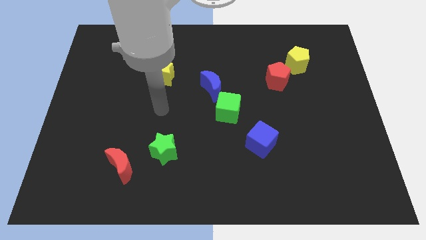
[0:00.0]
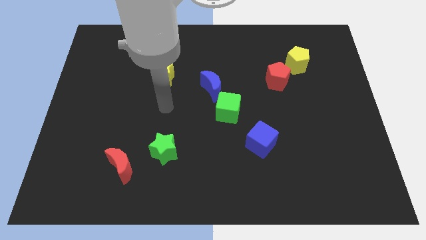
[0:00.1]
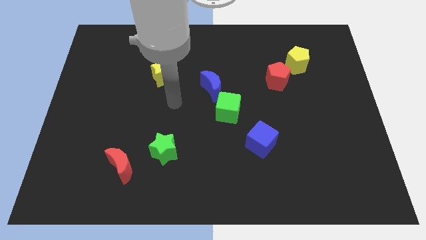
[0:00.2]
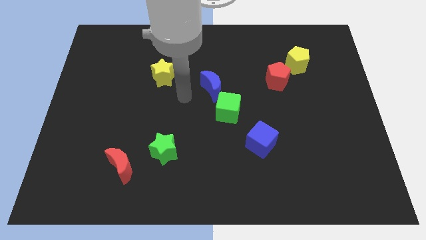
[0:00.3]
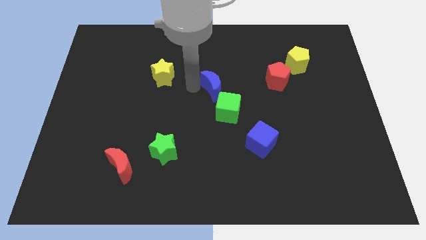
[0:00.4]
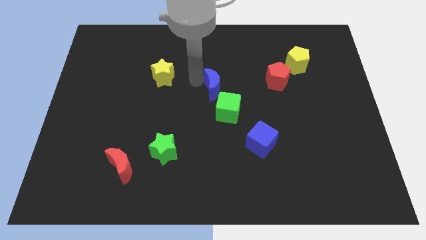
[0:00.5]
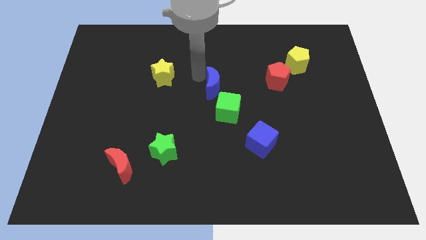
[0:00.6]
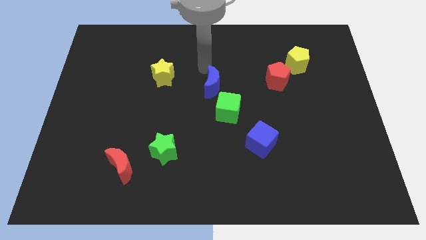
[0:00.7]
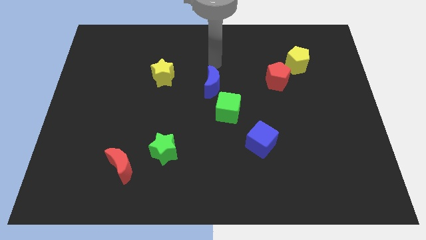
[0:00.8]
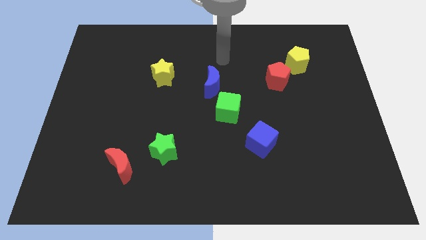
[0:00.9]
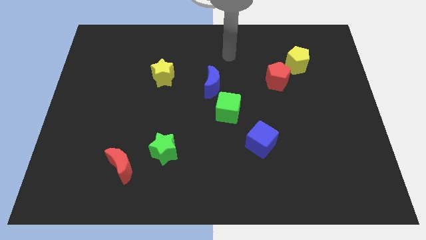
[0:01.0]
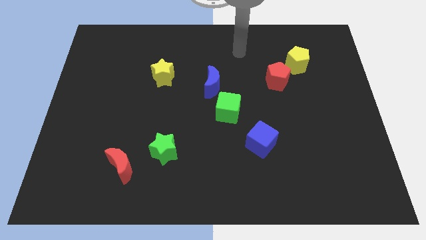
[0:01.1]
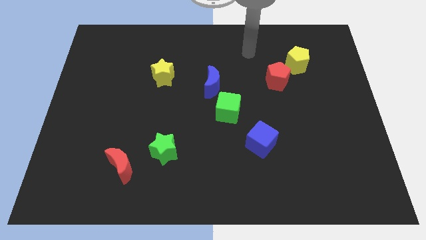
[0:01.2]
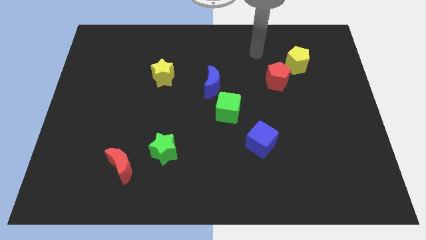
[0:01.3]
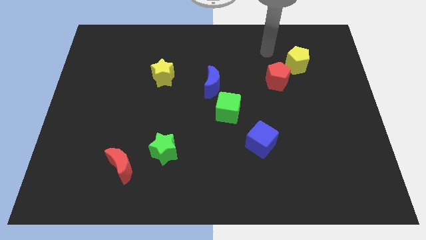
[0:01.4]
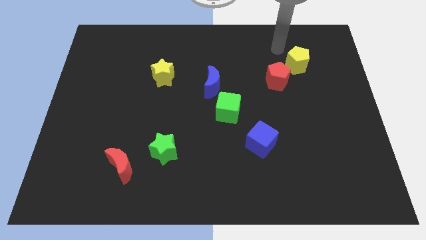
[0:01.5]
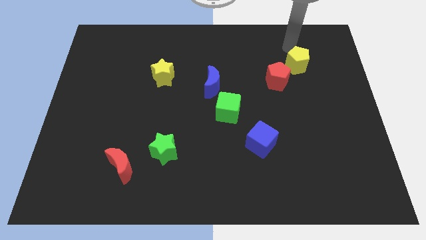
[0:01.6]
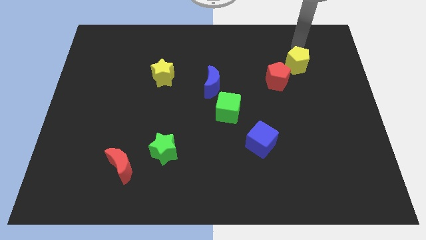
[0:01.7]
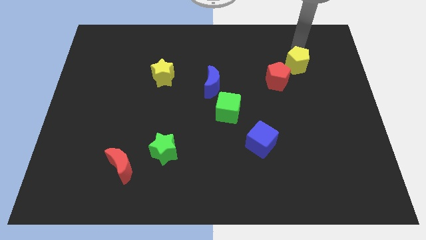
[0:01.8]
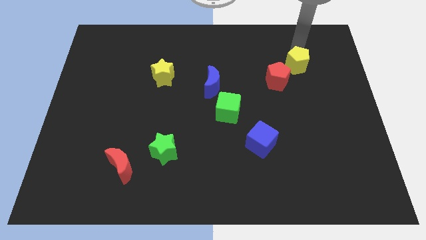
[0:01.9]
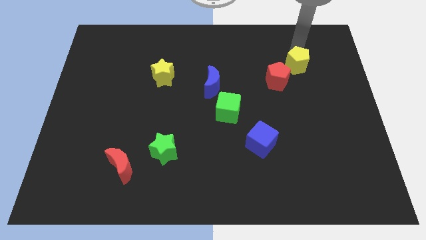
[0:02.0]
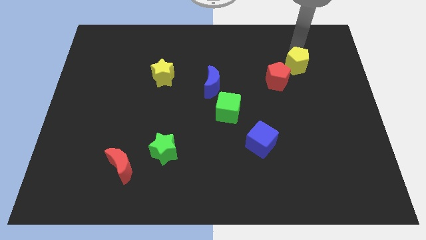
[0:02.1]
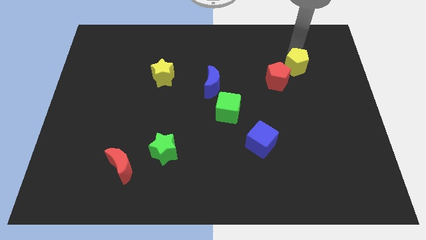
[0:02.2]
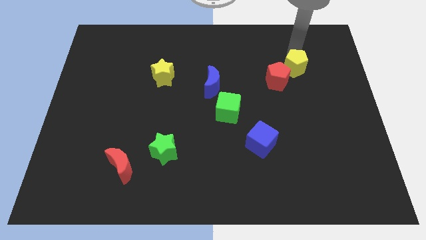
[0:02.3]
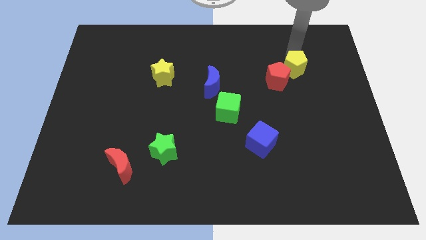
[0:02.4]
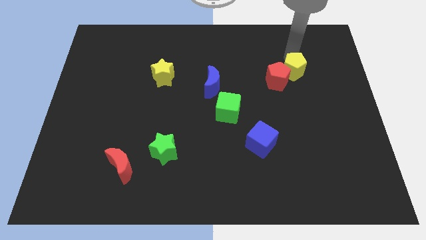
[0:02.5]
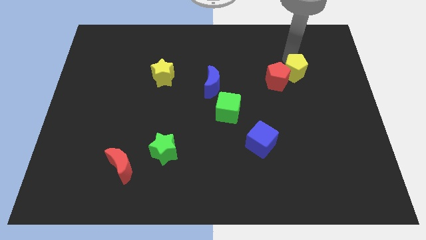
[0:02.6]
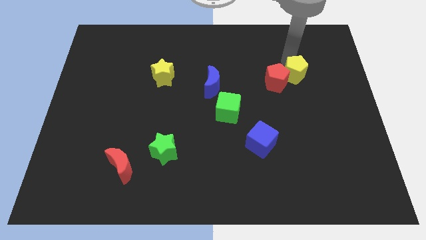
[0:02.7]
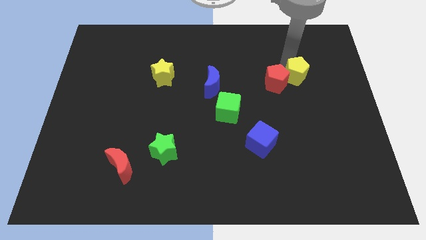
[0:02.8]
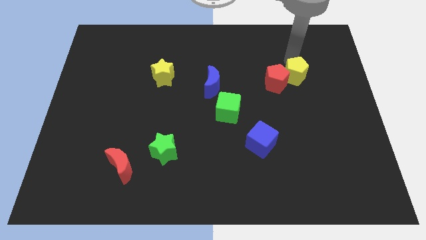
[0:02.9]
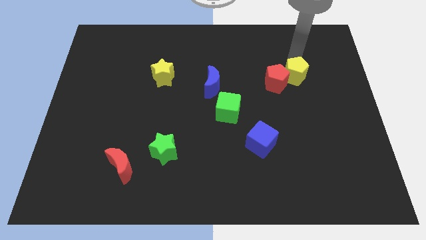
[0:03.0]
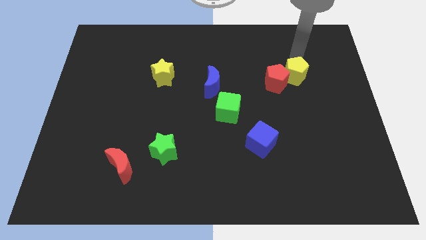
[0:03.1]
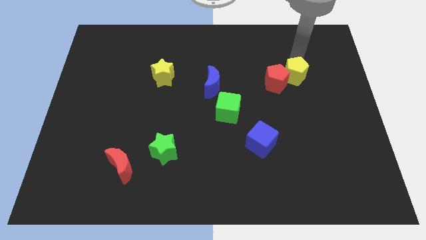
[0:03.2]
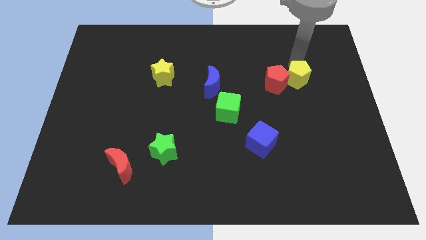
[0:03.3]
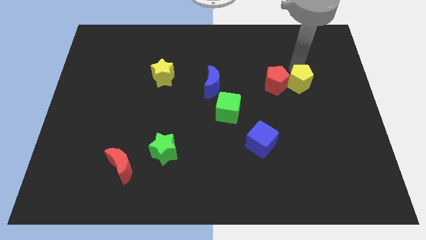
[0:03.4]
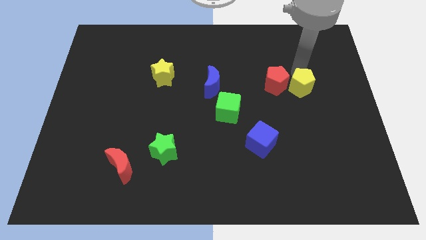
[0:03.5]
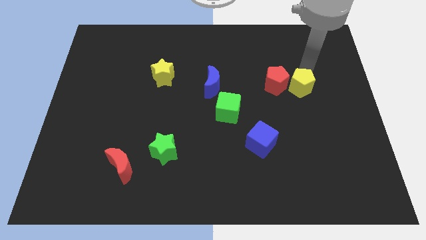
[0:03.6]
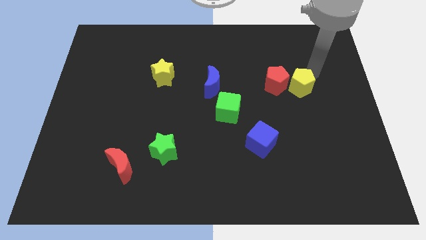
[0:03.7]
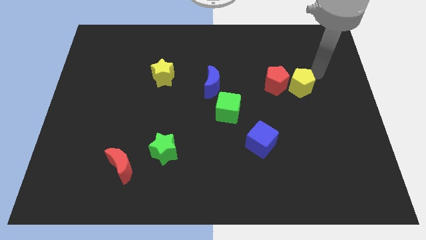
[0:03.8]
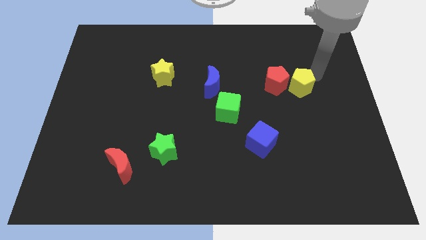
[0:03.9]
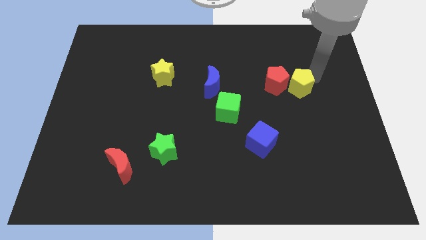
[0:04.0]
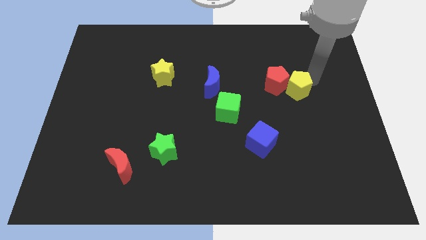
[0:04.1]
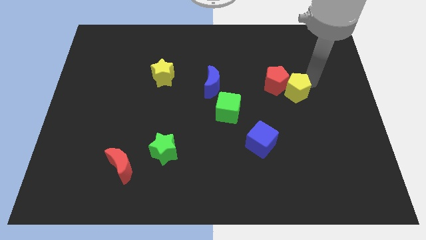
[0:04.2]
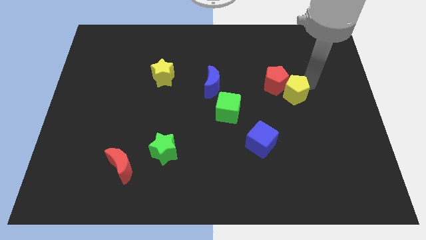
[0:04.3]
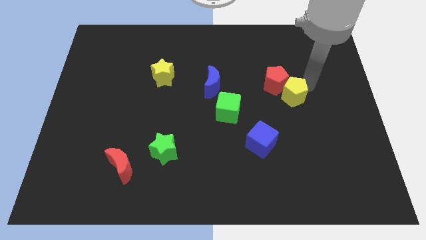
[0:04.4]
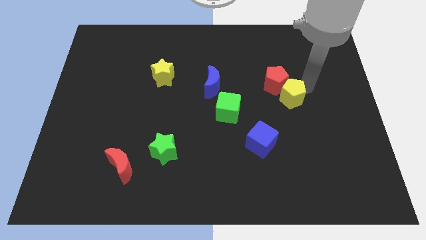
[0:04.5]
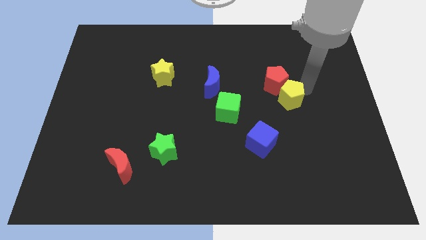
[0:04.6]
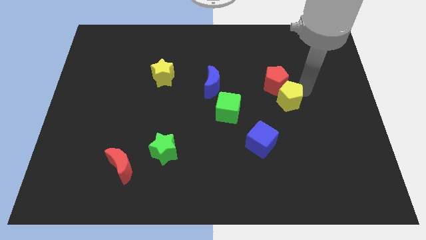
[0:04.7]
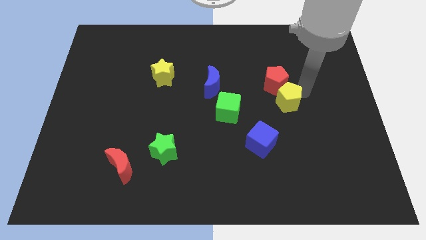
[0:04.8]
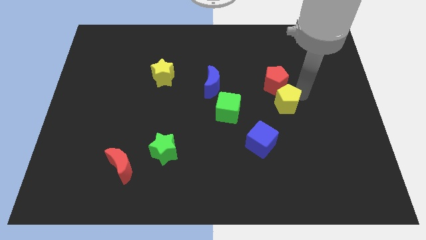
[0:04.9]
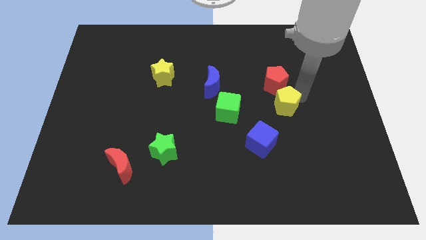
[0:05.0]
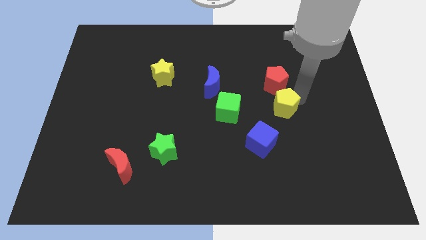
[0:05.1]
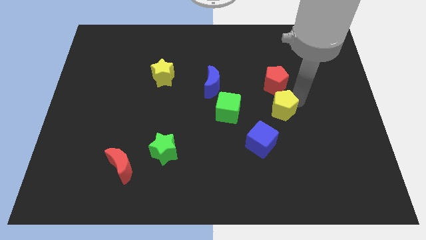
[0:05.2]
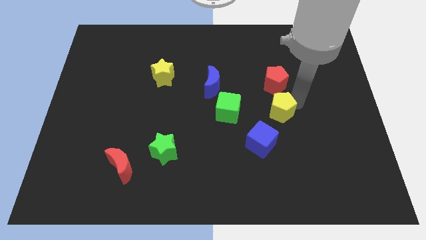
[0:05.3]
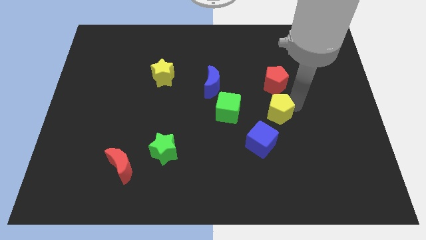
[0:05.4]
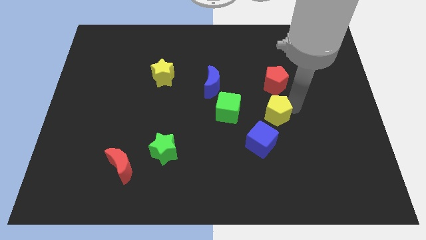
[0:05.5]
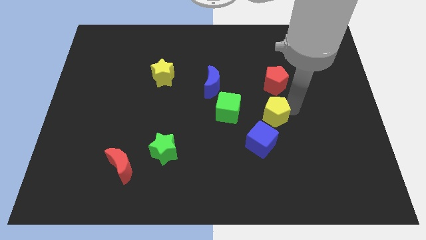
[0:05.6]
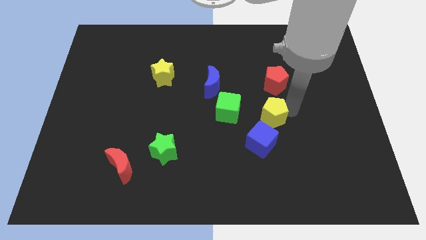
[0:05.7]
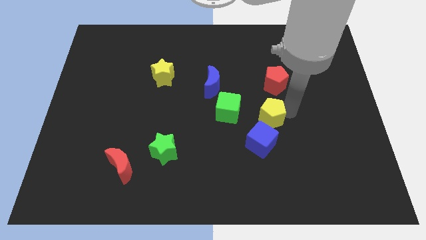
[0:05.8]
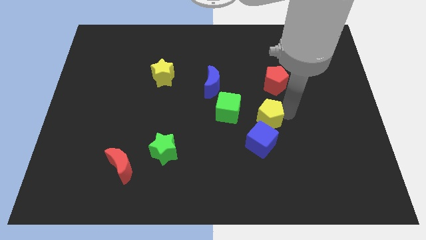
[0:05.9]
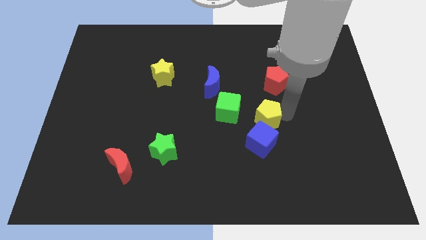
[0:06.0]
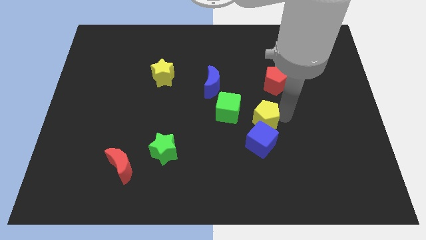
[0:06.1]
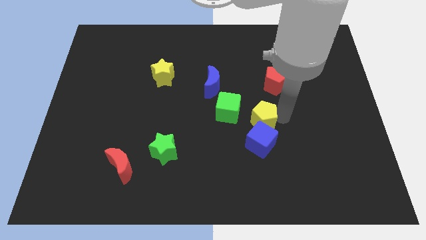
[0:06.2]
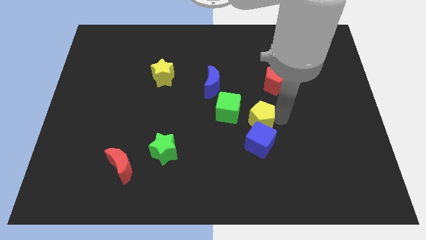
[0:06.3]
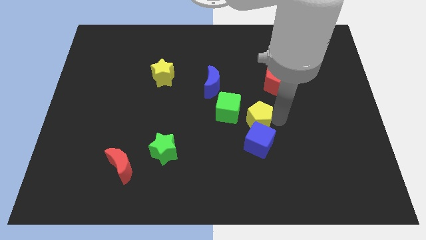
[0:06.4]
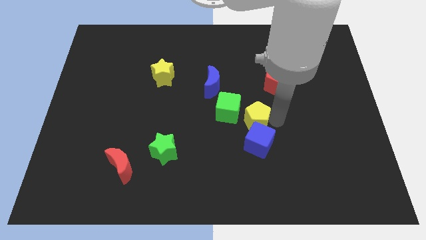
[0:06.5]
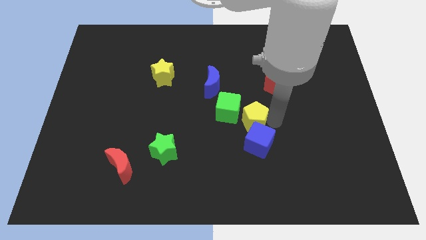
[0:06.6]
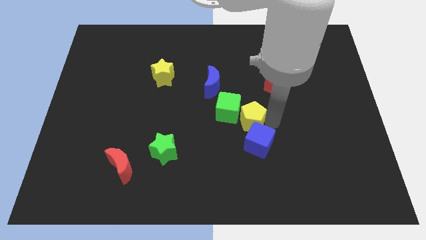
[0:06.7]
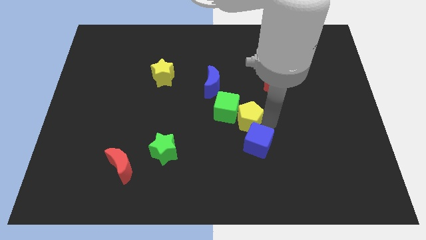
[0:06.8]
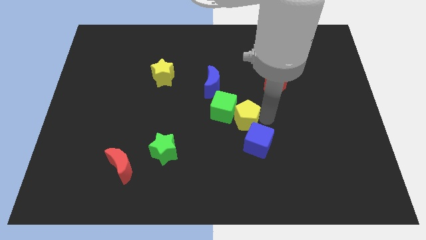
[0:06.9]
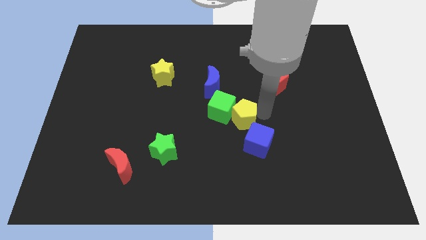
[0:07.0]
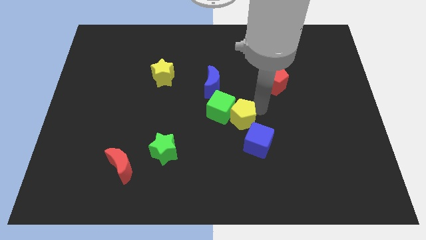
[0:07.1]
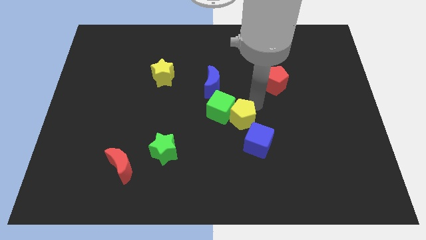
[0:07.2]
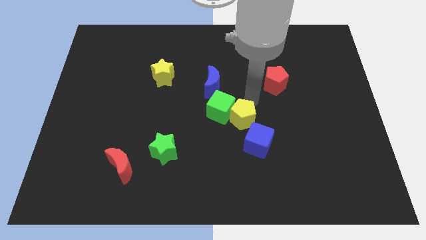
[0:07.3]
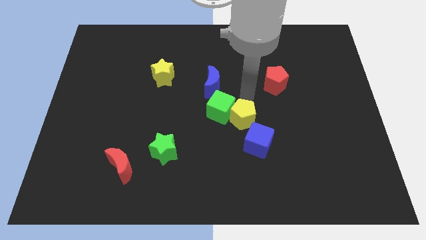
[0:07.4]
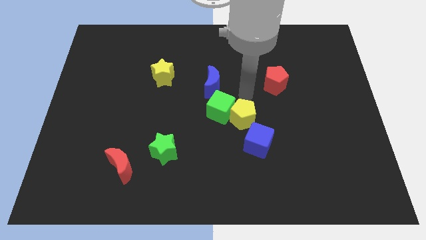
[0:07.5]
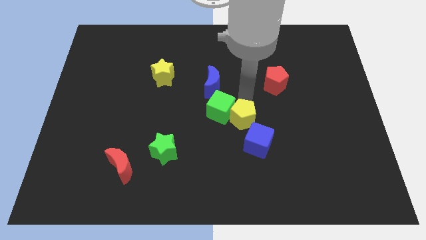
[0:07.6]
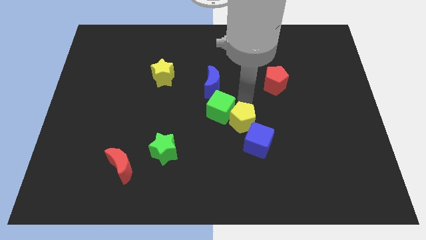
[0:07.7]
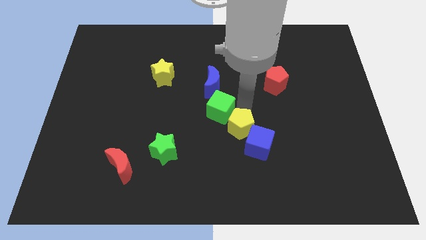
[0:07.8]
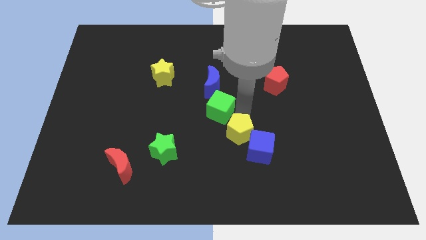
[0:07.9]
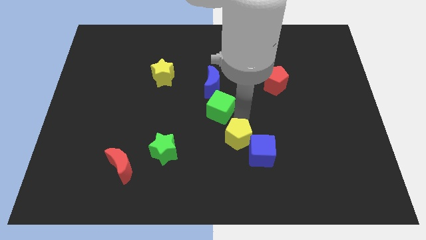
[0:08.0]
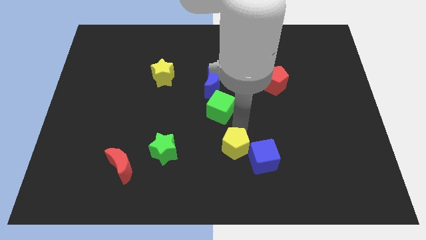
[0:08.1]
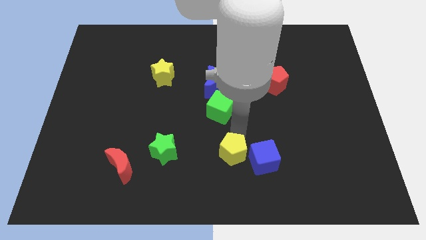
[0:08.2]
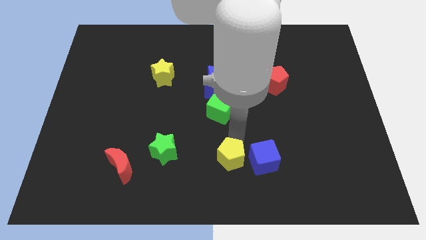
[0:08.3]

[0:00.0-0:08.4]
put the yellow pentagon to the bottom
